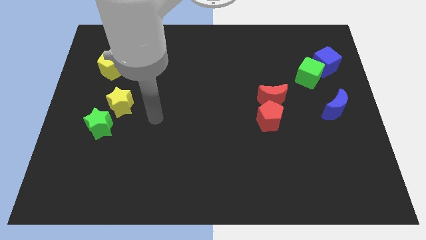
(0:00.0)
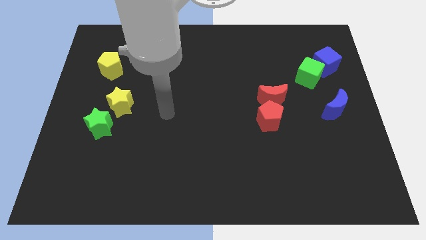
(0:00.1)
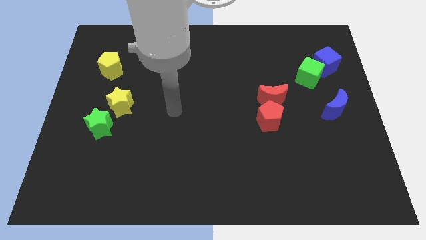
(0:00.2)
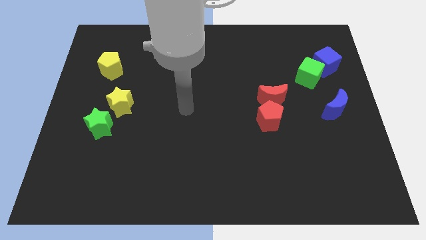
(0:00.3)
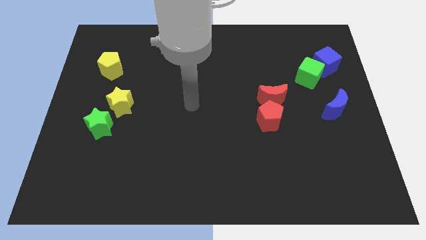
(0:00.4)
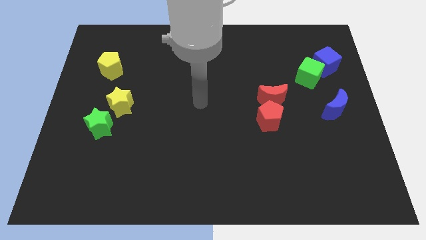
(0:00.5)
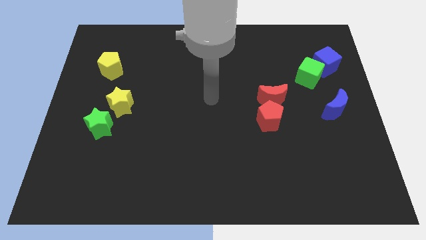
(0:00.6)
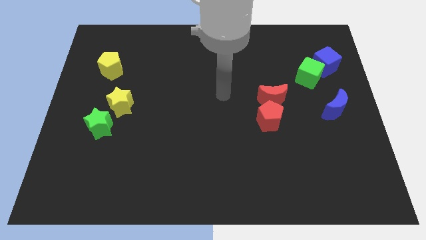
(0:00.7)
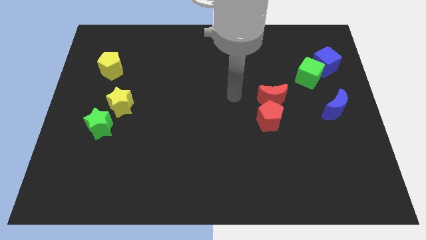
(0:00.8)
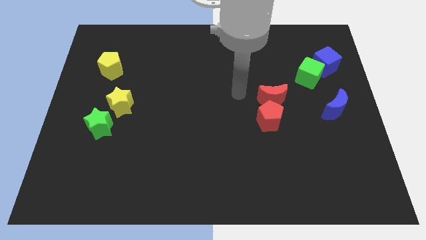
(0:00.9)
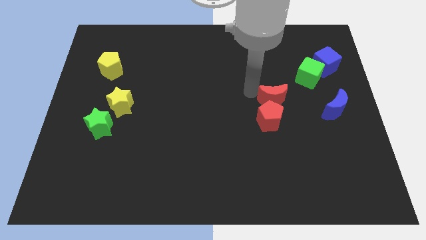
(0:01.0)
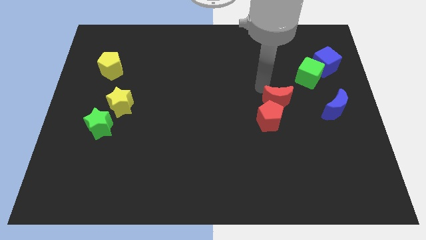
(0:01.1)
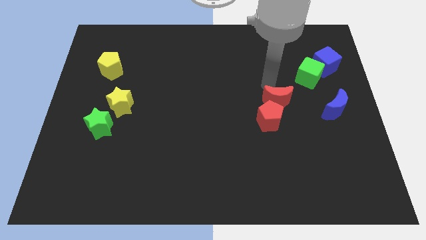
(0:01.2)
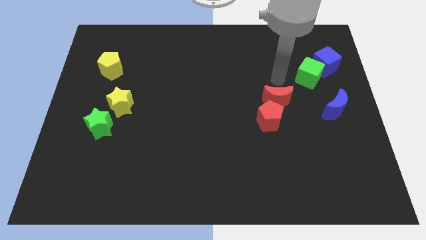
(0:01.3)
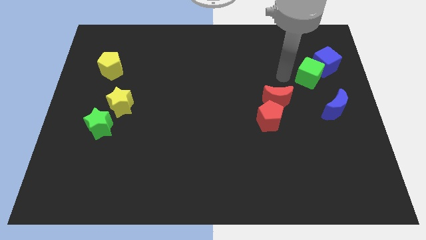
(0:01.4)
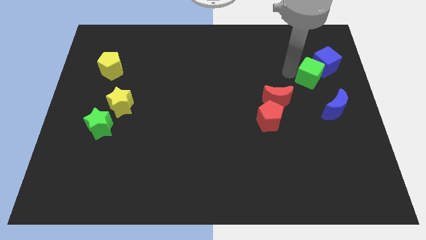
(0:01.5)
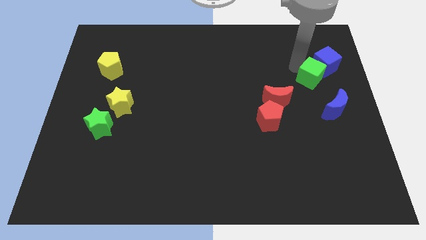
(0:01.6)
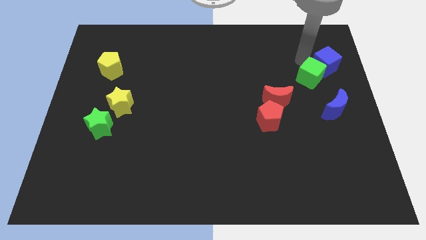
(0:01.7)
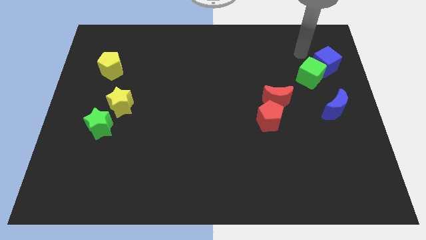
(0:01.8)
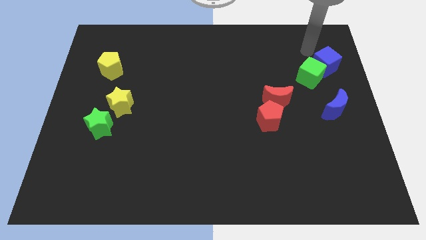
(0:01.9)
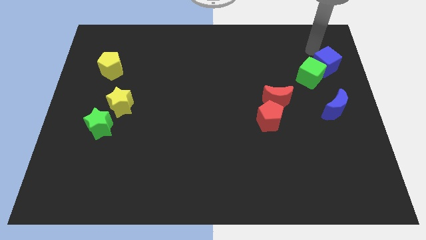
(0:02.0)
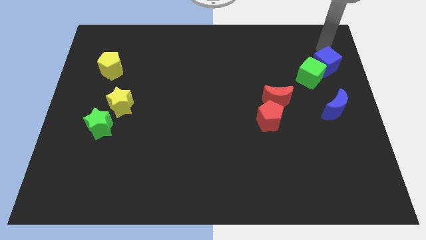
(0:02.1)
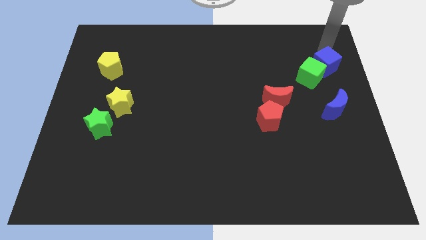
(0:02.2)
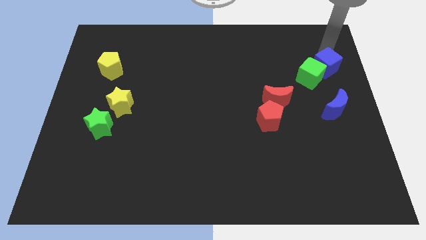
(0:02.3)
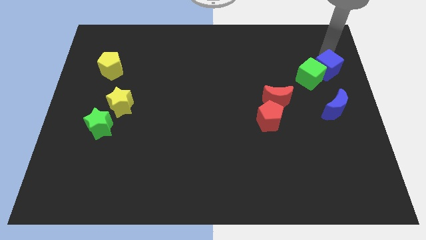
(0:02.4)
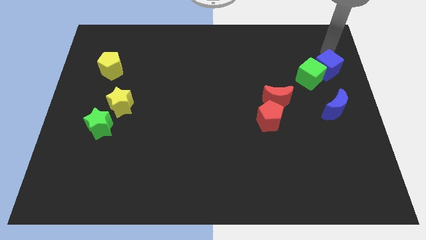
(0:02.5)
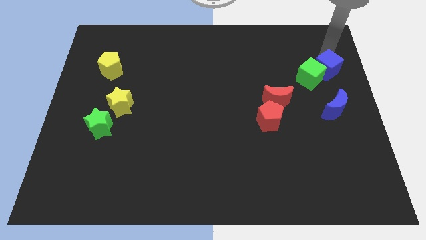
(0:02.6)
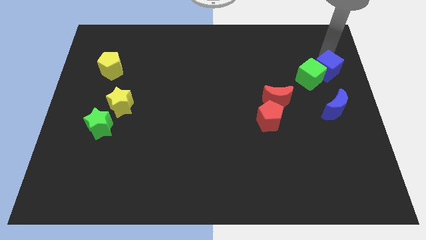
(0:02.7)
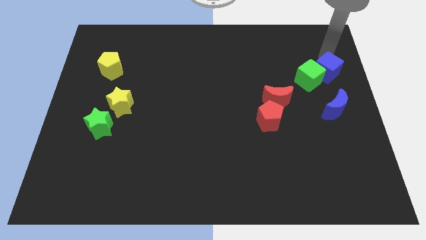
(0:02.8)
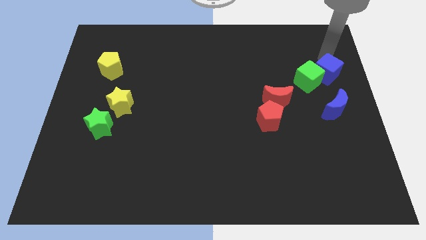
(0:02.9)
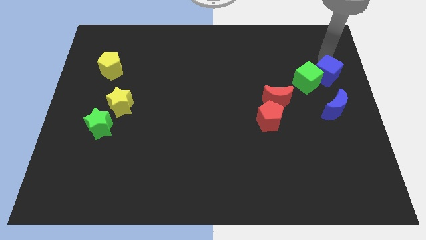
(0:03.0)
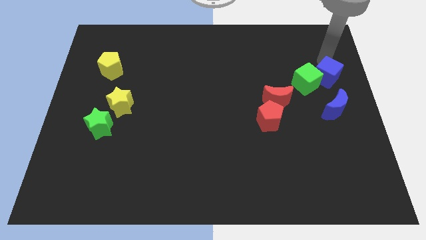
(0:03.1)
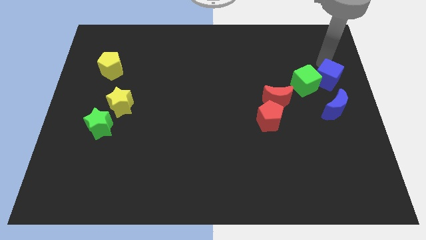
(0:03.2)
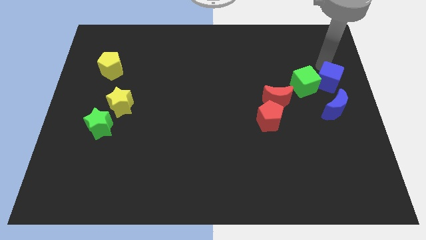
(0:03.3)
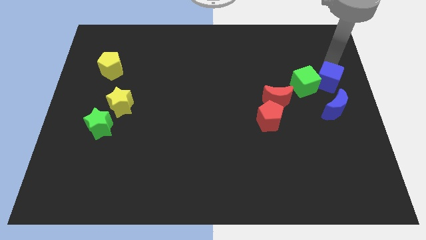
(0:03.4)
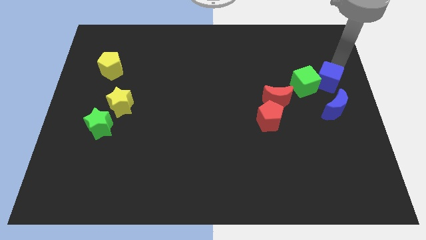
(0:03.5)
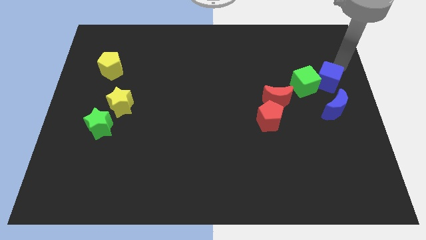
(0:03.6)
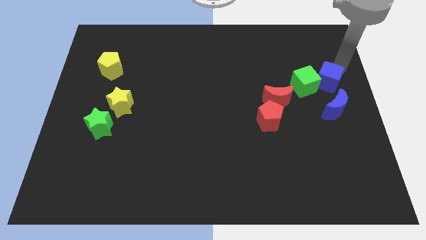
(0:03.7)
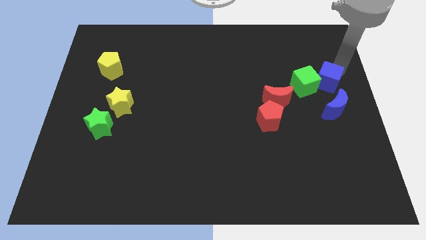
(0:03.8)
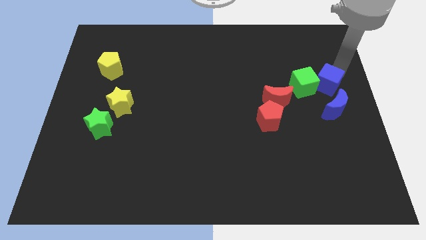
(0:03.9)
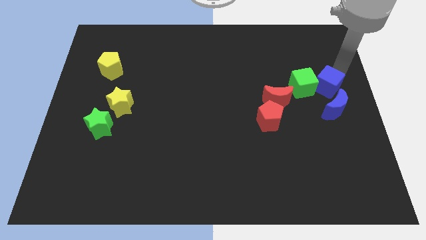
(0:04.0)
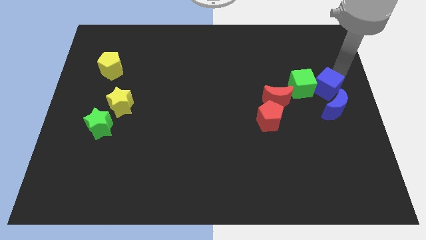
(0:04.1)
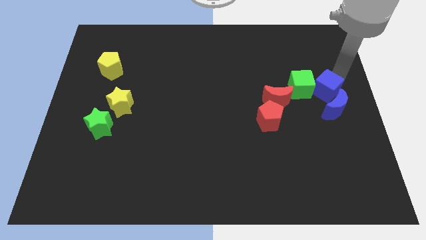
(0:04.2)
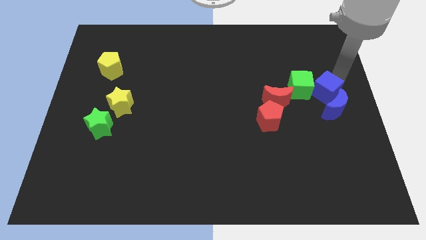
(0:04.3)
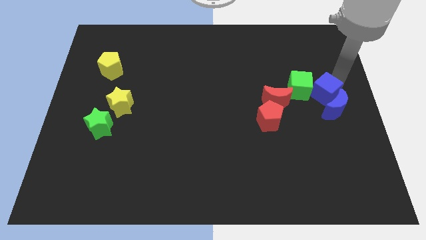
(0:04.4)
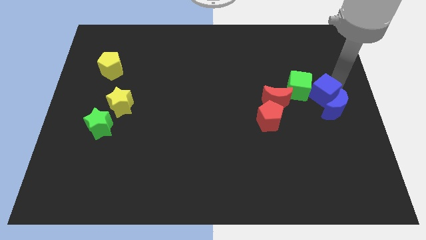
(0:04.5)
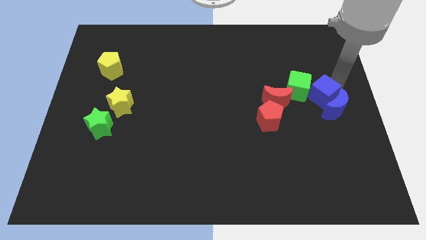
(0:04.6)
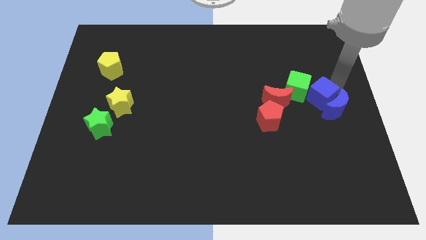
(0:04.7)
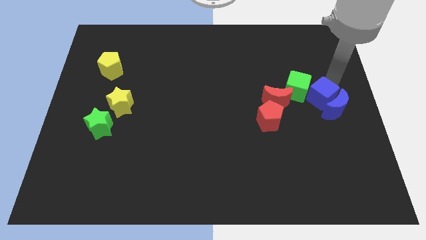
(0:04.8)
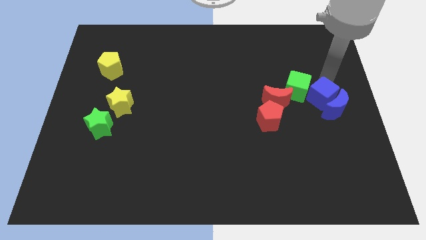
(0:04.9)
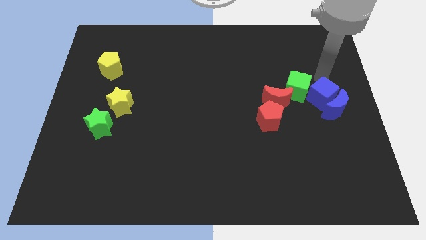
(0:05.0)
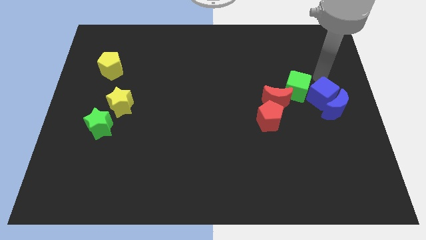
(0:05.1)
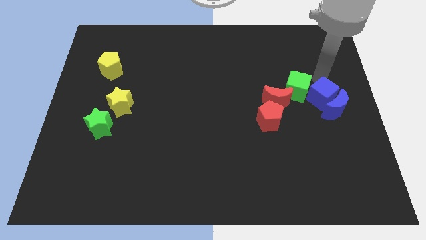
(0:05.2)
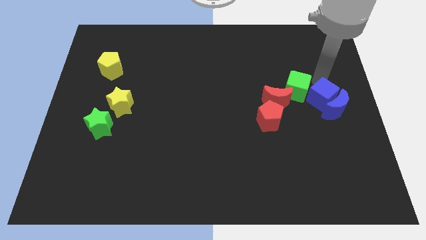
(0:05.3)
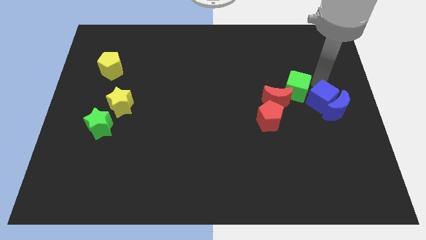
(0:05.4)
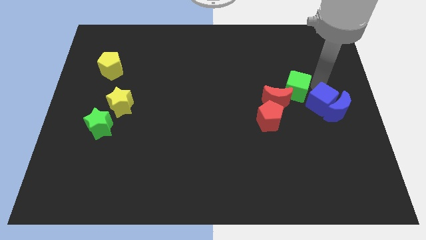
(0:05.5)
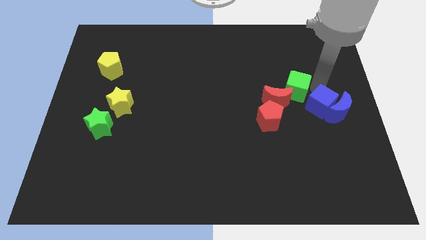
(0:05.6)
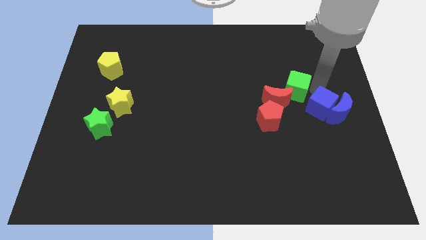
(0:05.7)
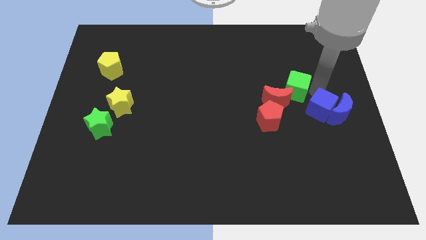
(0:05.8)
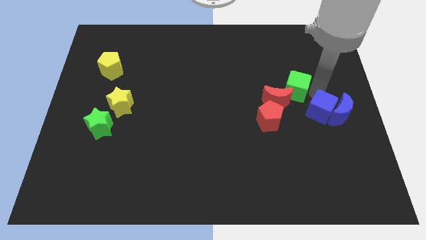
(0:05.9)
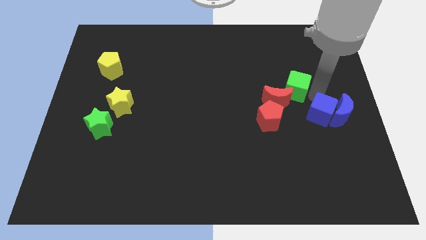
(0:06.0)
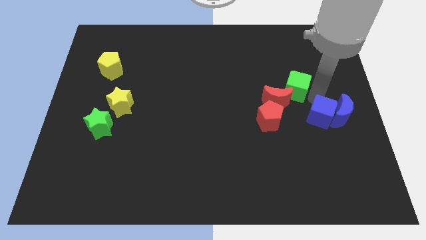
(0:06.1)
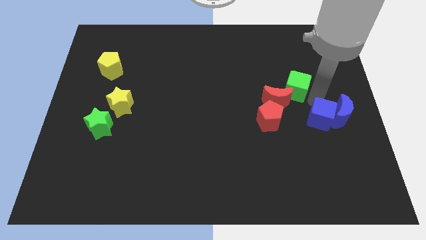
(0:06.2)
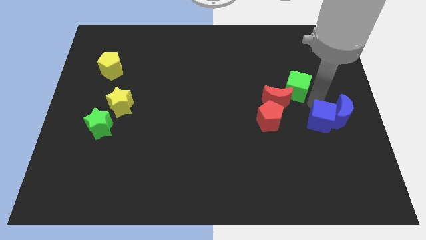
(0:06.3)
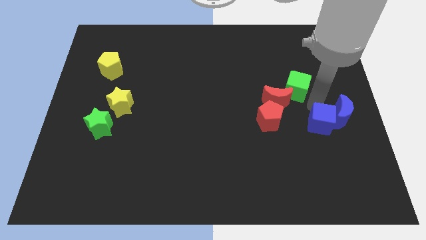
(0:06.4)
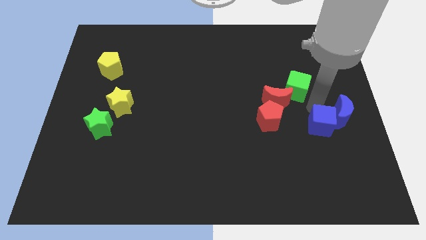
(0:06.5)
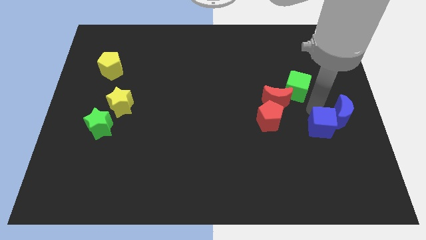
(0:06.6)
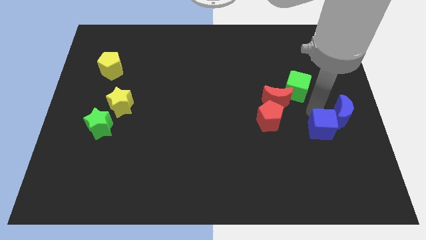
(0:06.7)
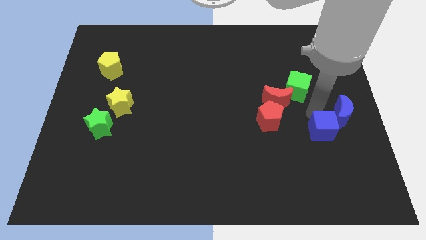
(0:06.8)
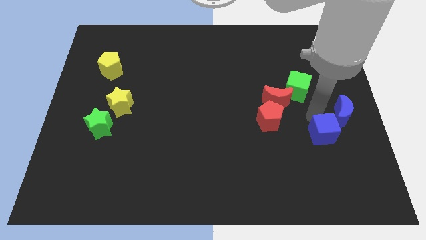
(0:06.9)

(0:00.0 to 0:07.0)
push the blue cube down

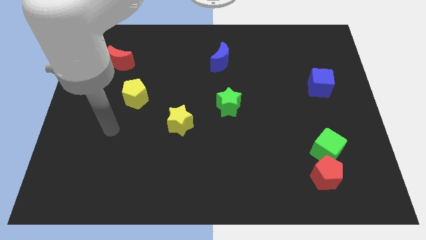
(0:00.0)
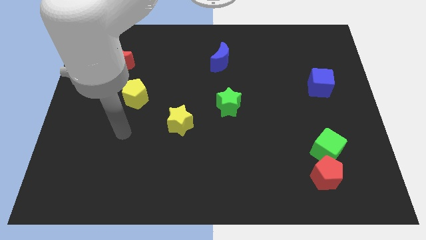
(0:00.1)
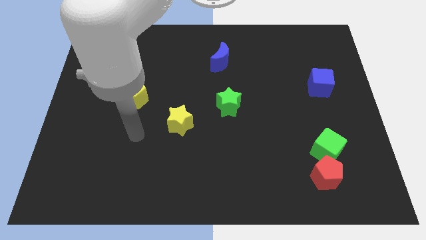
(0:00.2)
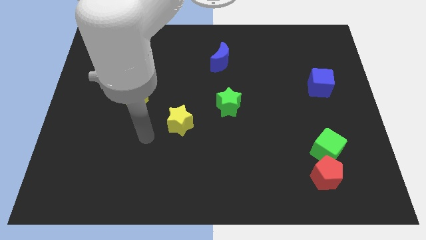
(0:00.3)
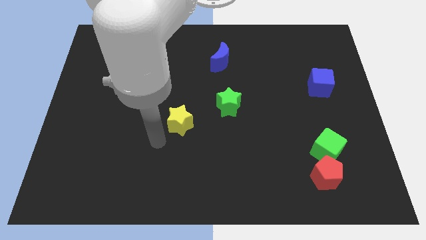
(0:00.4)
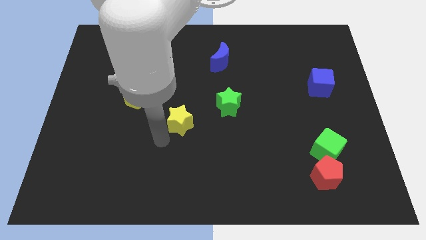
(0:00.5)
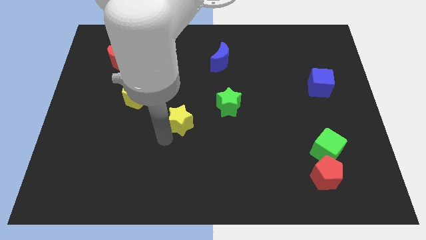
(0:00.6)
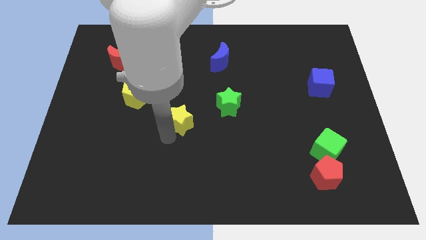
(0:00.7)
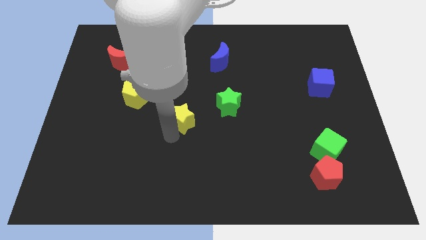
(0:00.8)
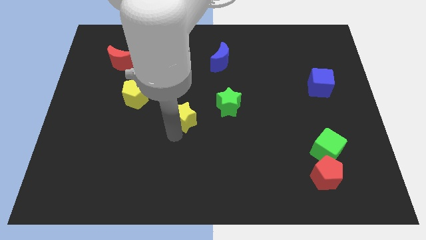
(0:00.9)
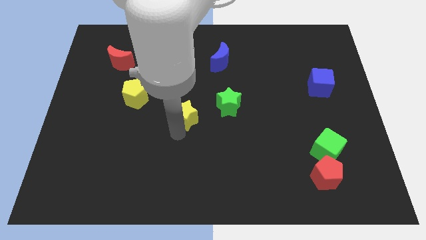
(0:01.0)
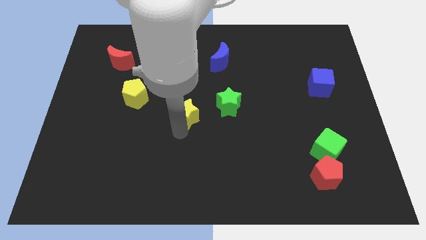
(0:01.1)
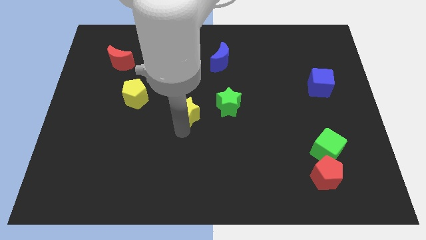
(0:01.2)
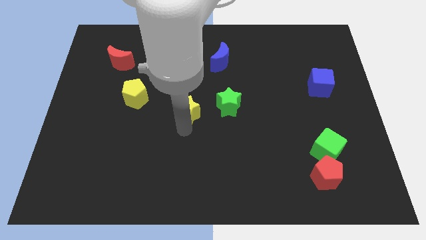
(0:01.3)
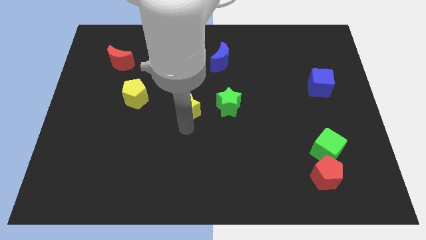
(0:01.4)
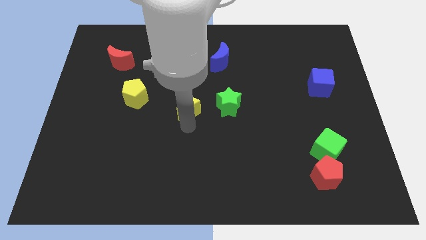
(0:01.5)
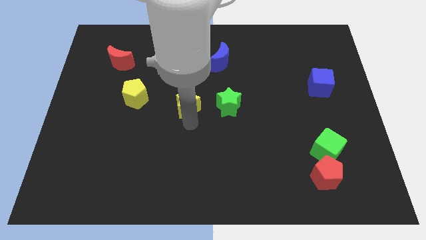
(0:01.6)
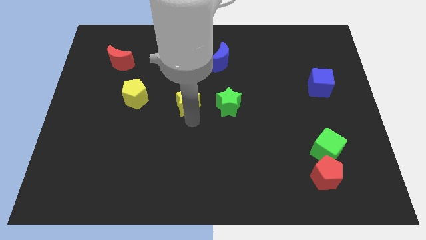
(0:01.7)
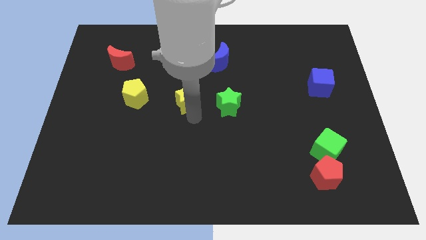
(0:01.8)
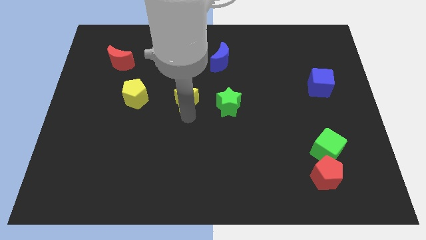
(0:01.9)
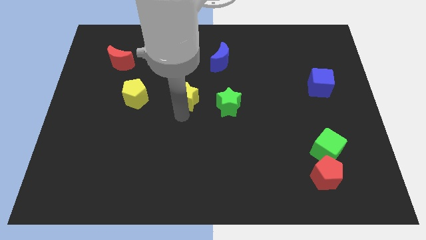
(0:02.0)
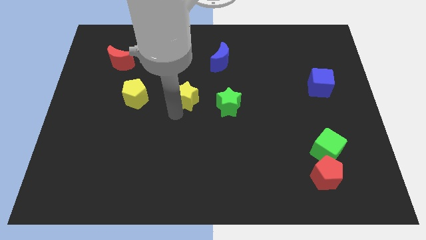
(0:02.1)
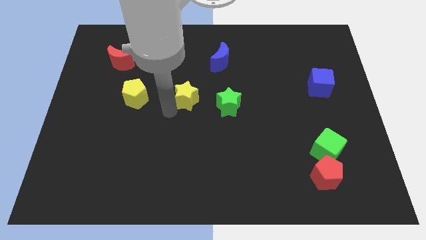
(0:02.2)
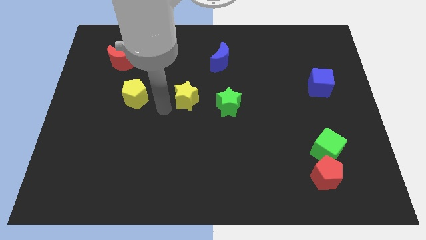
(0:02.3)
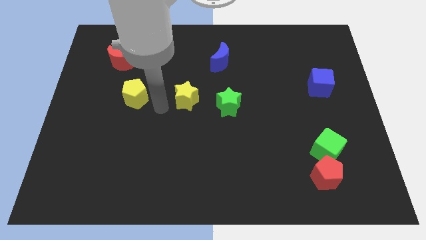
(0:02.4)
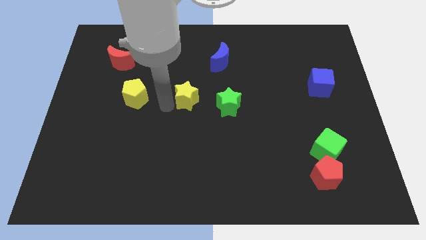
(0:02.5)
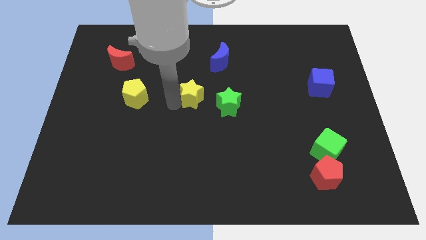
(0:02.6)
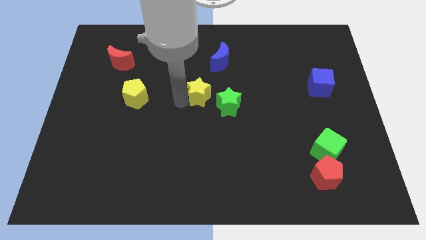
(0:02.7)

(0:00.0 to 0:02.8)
move the yellow star up and to the right a bit
